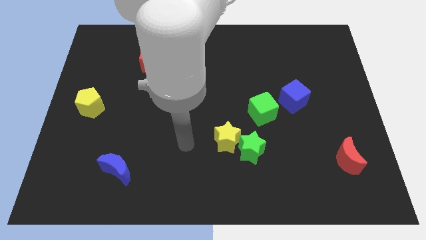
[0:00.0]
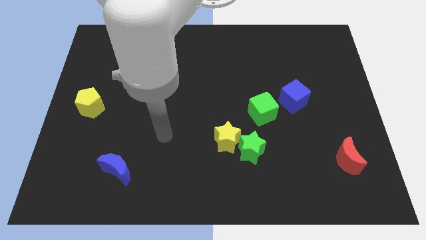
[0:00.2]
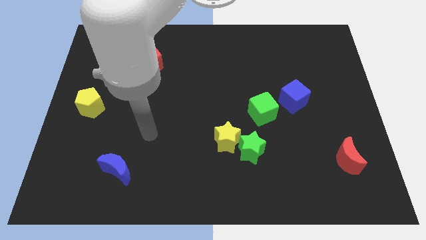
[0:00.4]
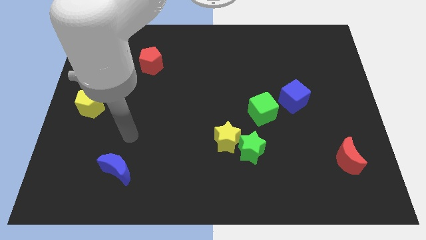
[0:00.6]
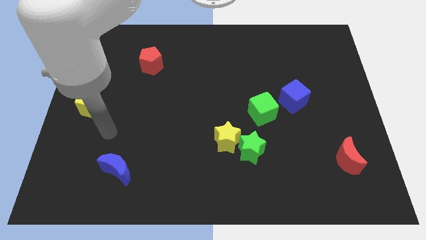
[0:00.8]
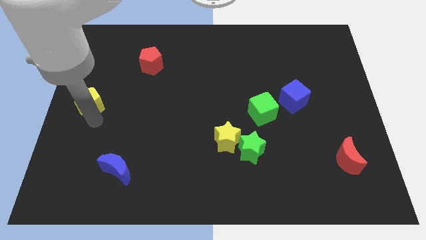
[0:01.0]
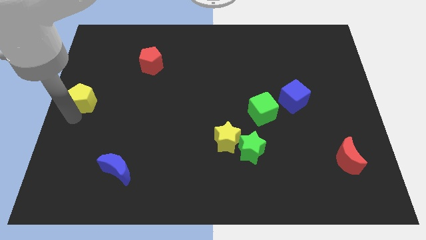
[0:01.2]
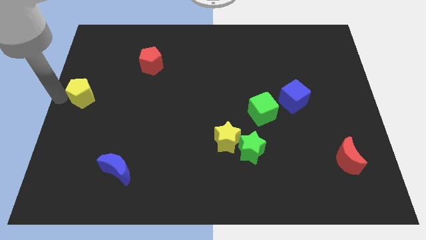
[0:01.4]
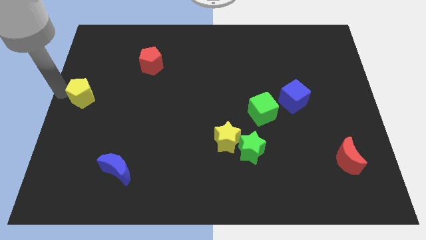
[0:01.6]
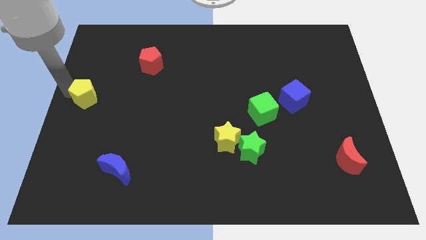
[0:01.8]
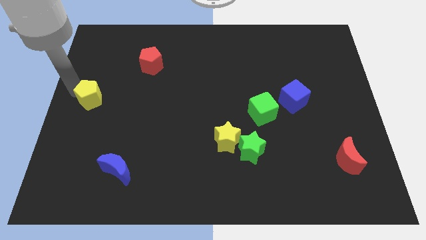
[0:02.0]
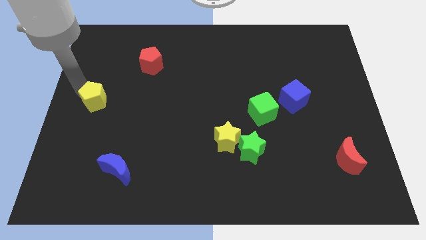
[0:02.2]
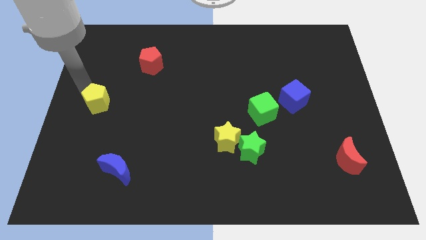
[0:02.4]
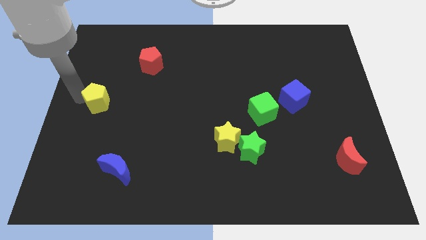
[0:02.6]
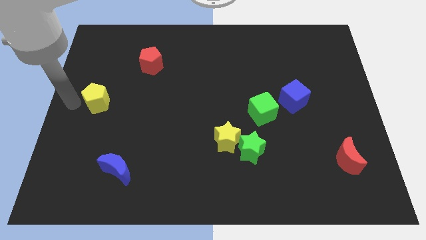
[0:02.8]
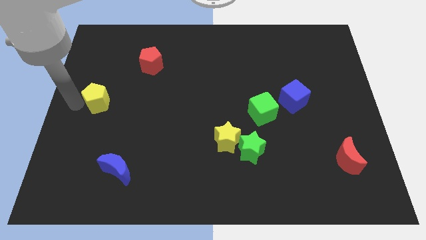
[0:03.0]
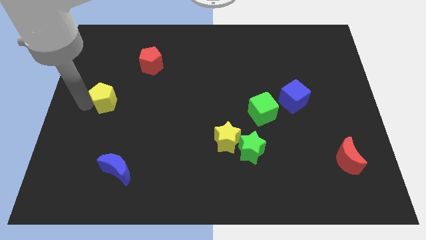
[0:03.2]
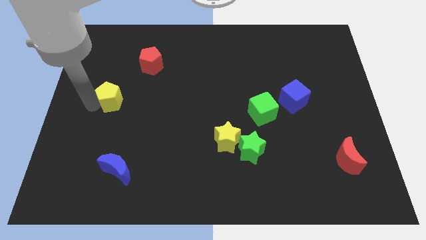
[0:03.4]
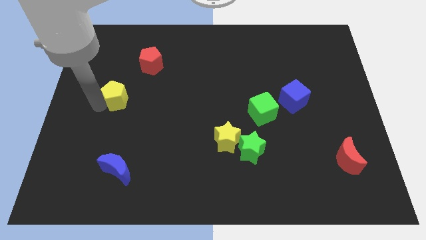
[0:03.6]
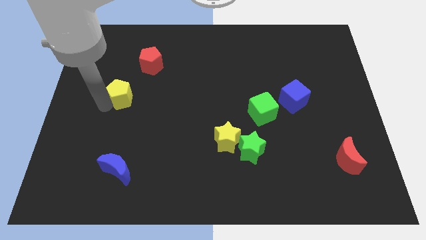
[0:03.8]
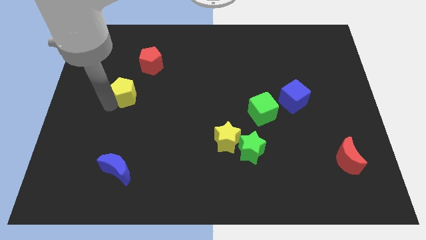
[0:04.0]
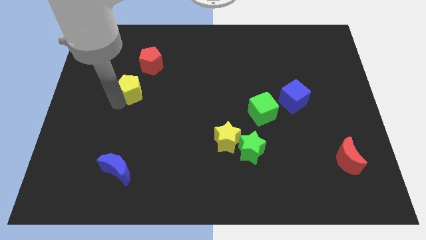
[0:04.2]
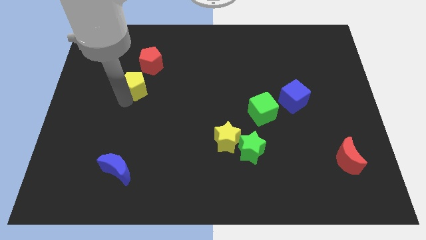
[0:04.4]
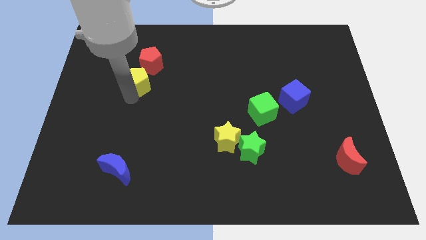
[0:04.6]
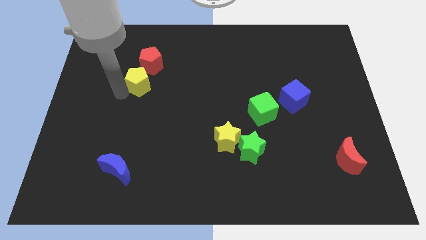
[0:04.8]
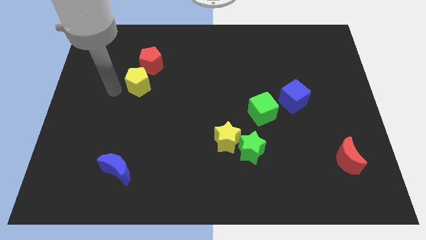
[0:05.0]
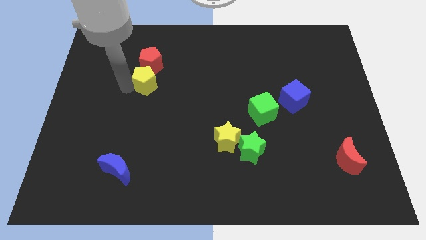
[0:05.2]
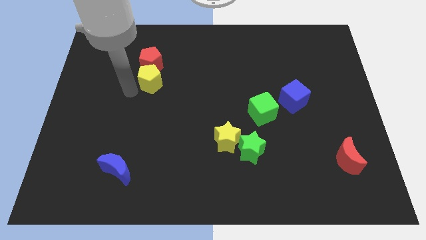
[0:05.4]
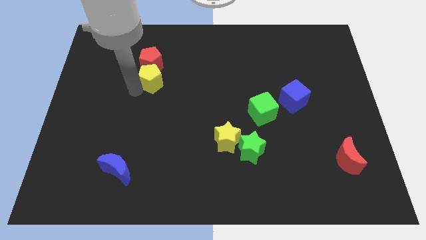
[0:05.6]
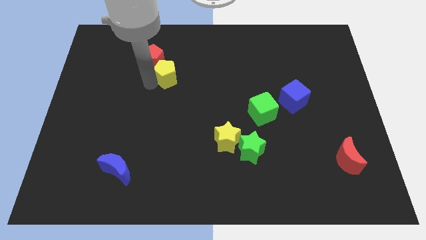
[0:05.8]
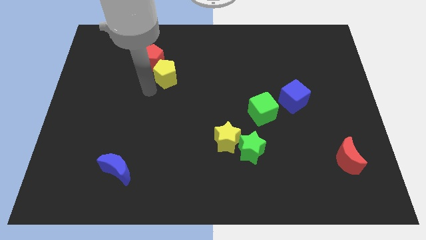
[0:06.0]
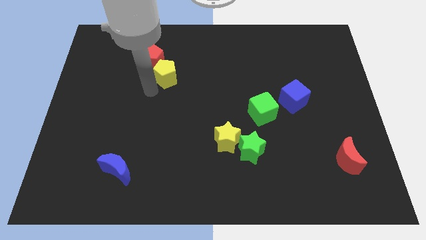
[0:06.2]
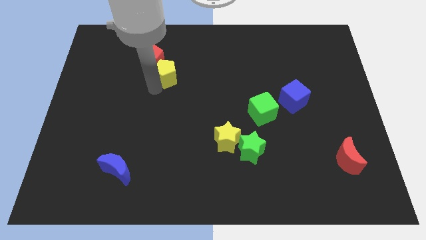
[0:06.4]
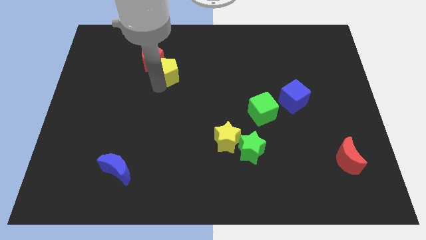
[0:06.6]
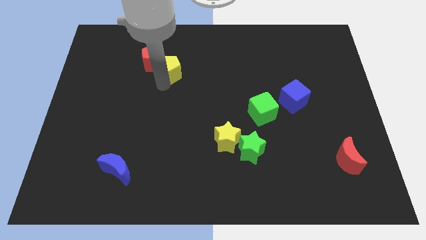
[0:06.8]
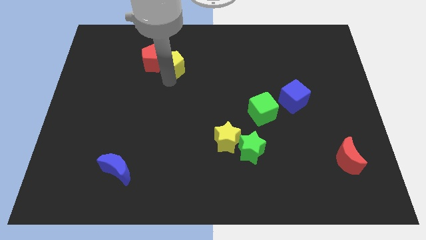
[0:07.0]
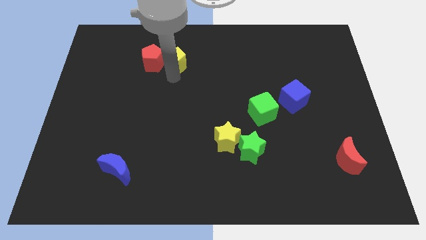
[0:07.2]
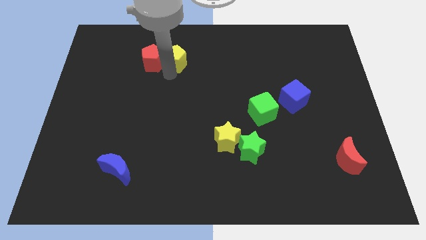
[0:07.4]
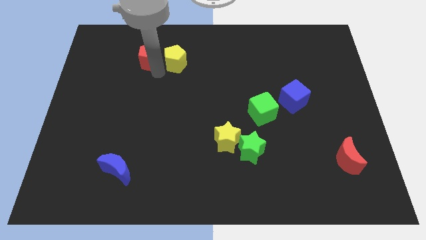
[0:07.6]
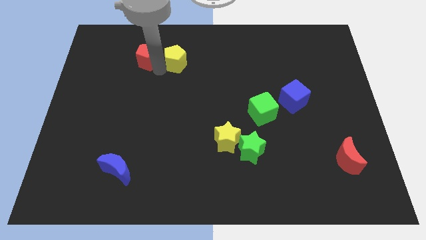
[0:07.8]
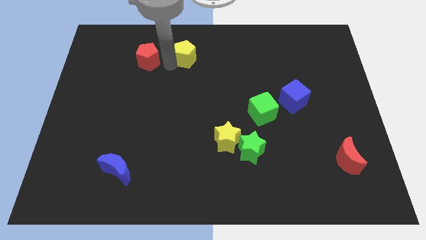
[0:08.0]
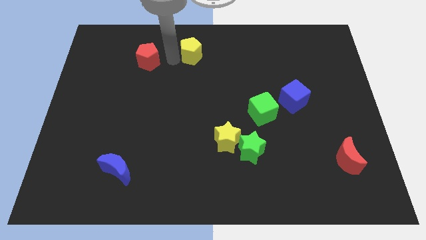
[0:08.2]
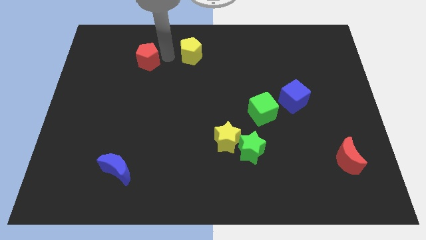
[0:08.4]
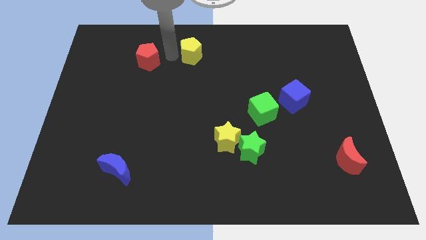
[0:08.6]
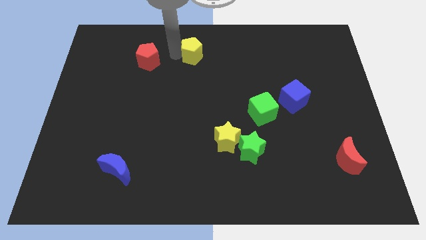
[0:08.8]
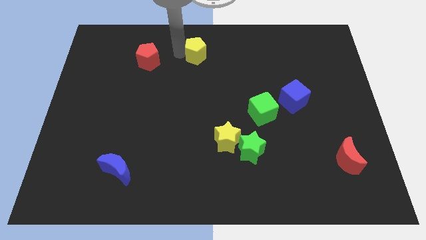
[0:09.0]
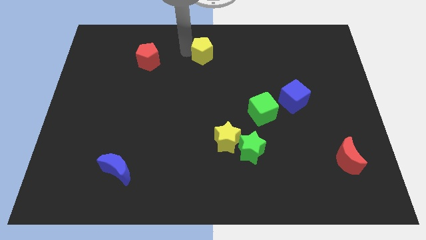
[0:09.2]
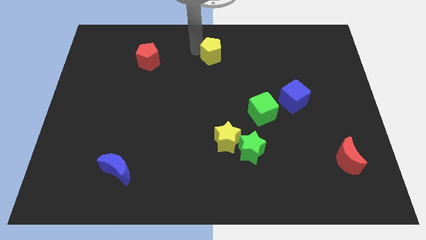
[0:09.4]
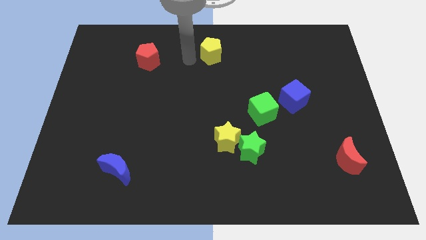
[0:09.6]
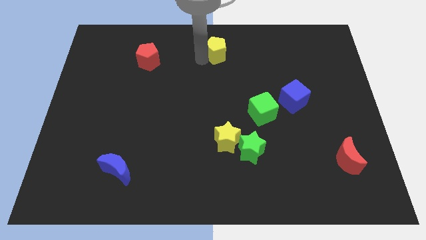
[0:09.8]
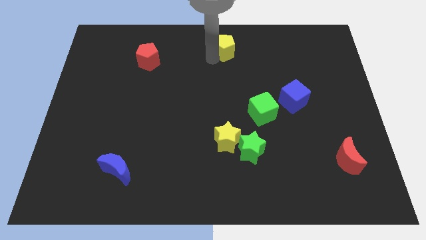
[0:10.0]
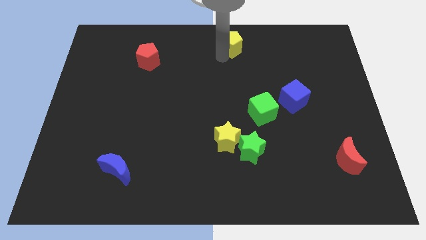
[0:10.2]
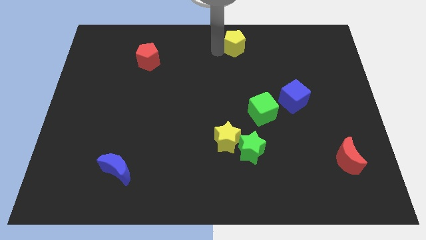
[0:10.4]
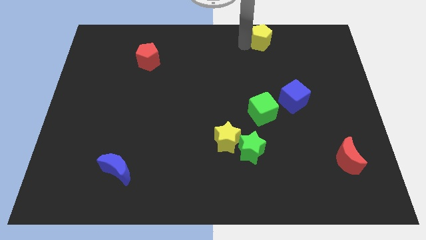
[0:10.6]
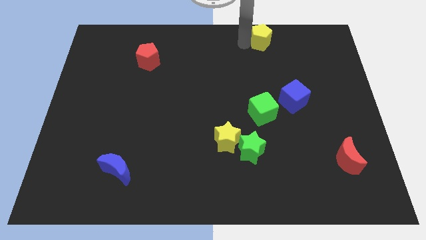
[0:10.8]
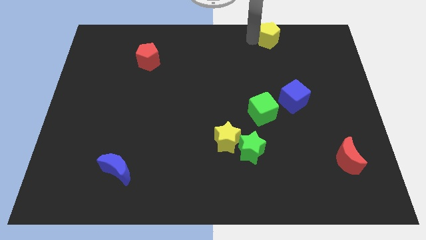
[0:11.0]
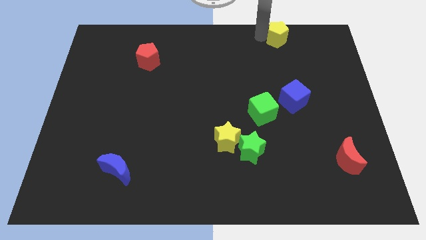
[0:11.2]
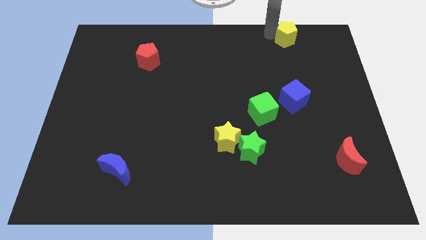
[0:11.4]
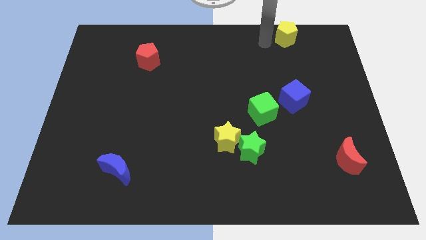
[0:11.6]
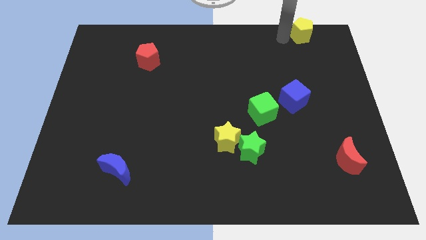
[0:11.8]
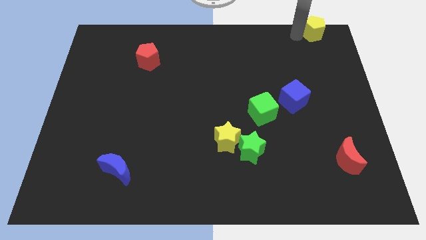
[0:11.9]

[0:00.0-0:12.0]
slide the yellow pentagon to the top right of the board

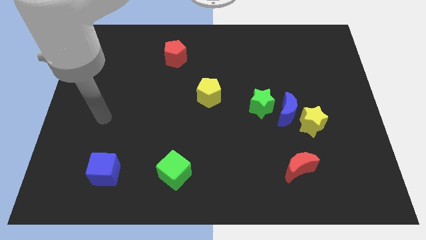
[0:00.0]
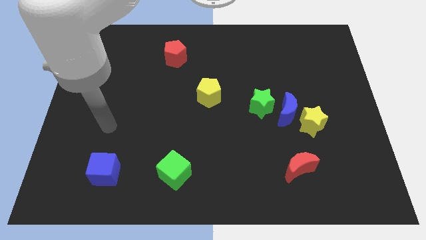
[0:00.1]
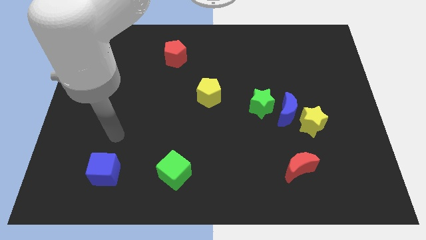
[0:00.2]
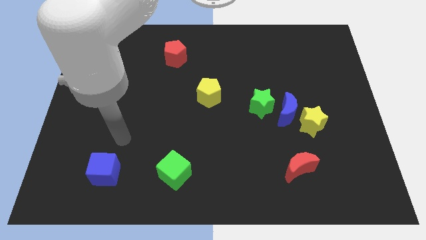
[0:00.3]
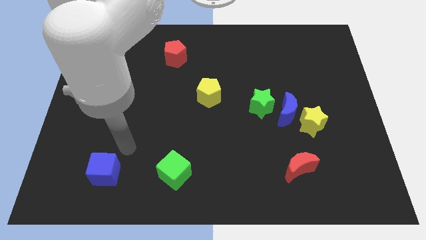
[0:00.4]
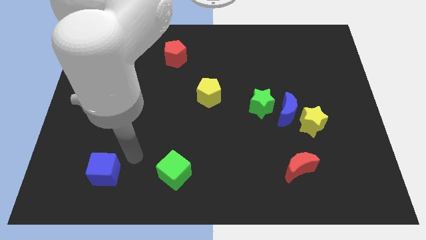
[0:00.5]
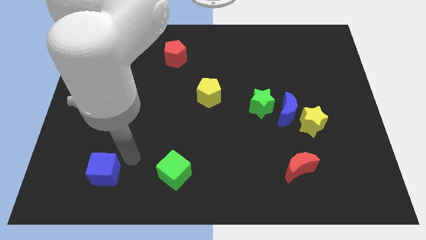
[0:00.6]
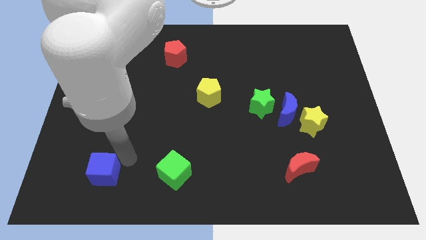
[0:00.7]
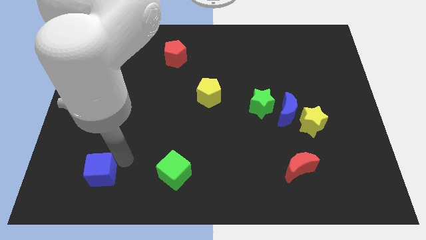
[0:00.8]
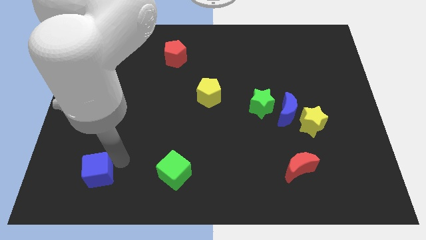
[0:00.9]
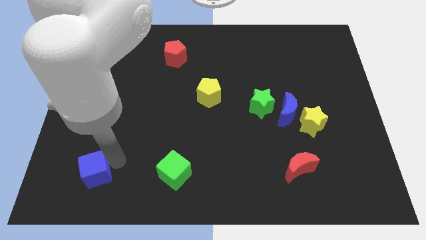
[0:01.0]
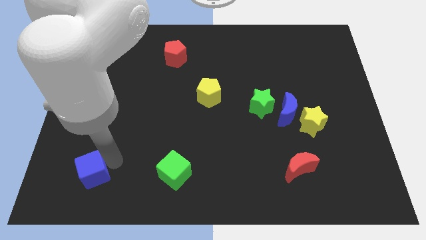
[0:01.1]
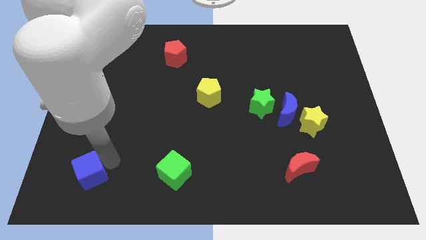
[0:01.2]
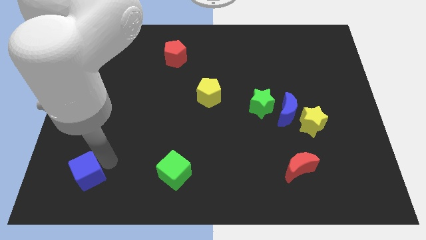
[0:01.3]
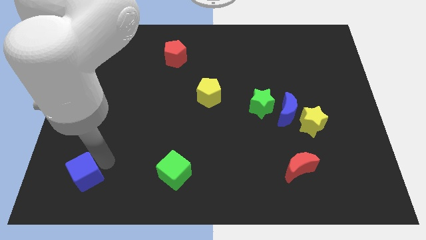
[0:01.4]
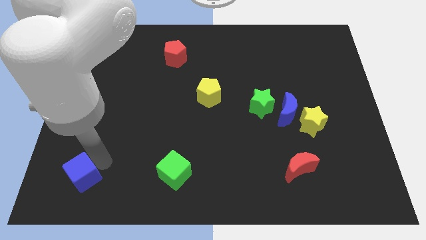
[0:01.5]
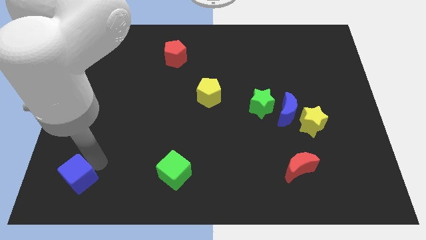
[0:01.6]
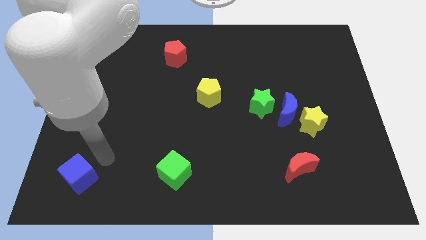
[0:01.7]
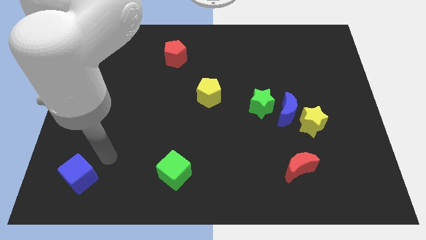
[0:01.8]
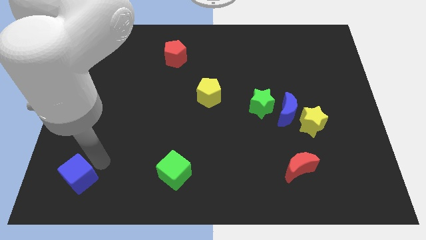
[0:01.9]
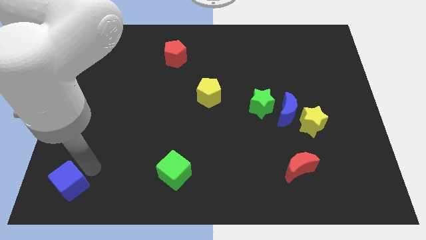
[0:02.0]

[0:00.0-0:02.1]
put the blue cube to the bottom left corner

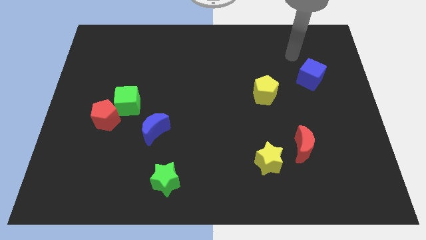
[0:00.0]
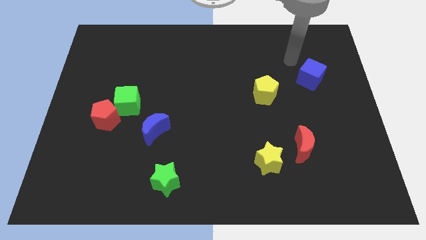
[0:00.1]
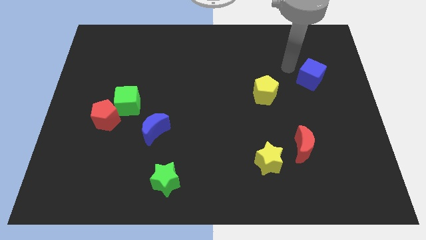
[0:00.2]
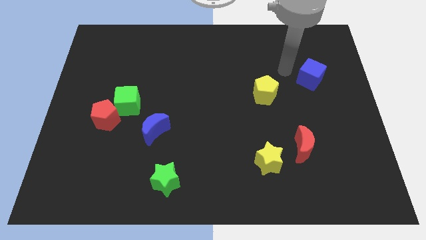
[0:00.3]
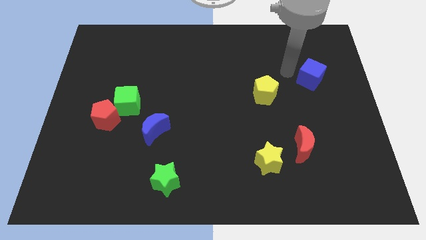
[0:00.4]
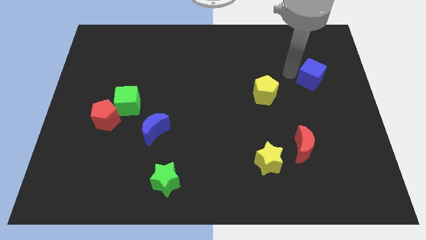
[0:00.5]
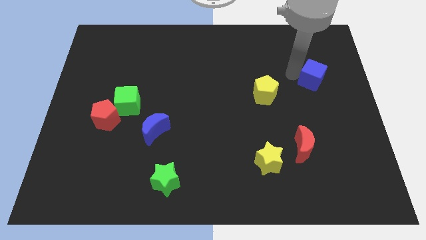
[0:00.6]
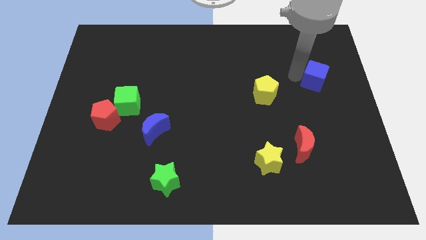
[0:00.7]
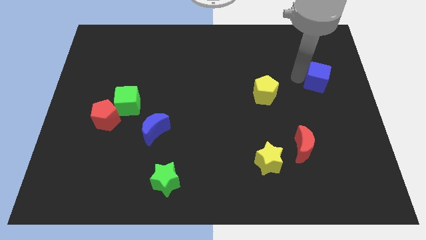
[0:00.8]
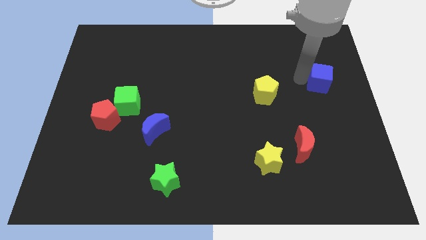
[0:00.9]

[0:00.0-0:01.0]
move the blue cube to the center right
